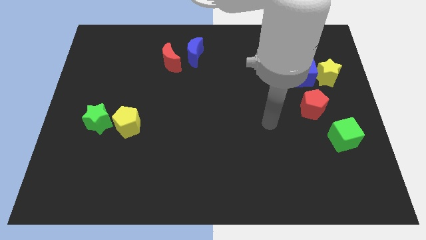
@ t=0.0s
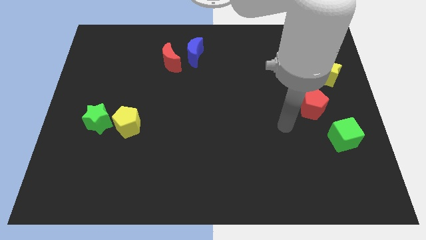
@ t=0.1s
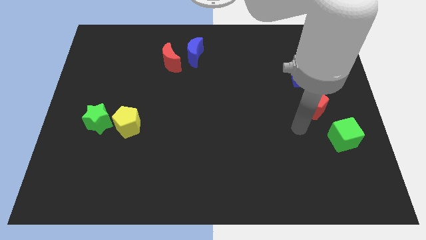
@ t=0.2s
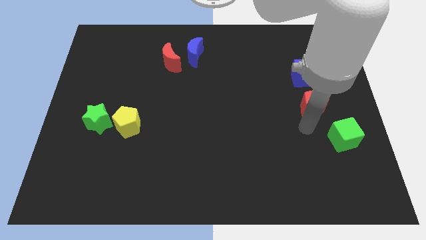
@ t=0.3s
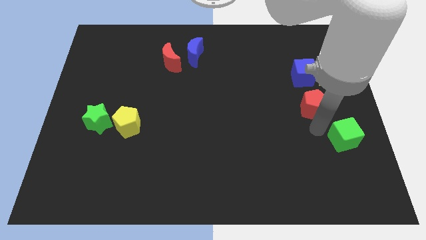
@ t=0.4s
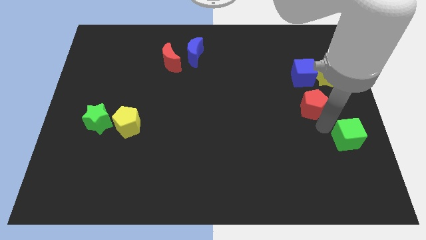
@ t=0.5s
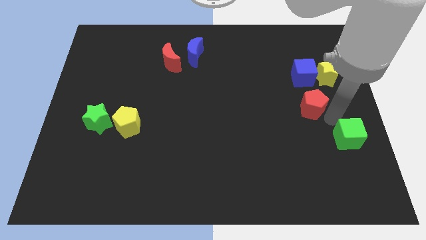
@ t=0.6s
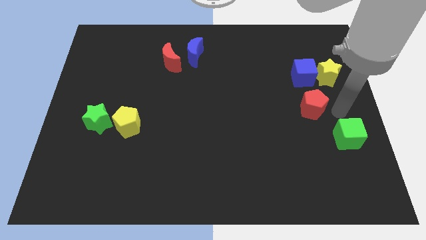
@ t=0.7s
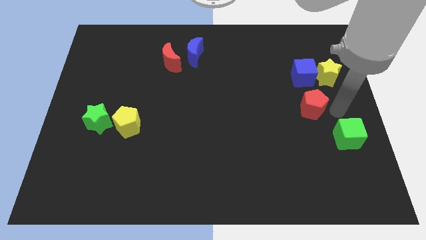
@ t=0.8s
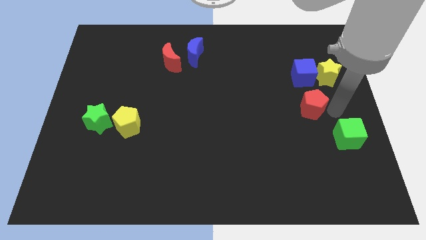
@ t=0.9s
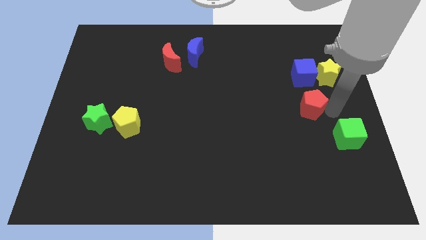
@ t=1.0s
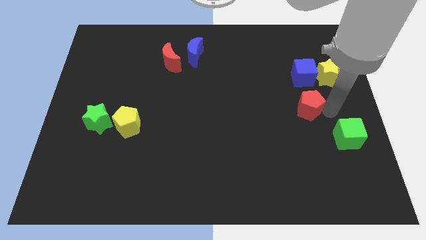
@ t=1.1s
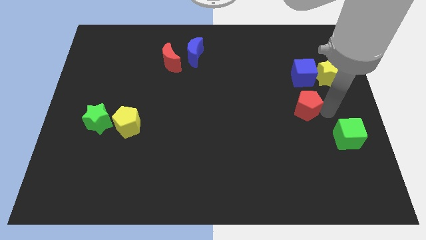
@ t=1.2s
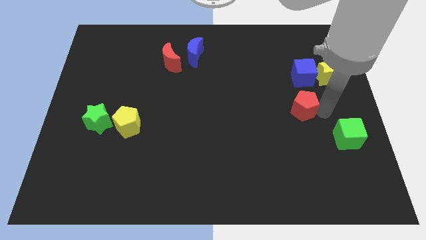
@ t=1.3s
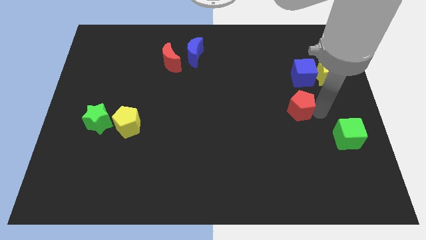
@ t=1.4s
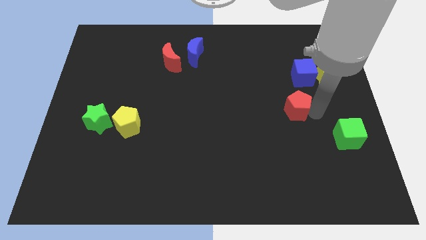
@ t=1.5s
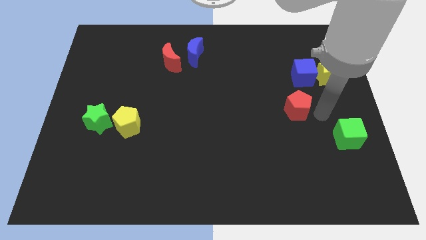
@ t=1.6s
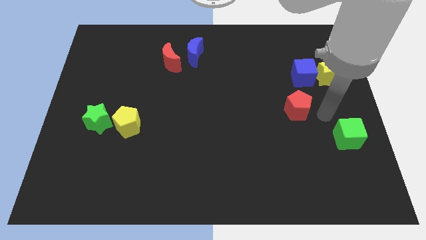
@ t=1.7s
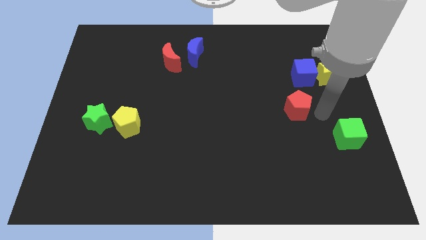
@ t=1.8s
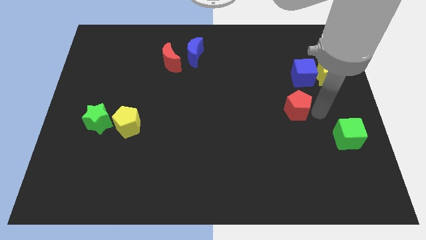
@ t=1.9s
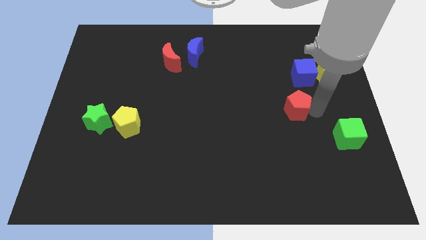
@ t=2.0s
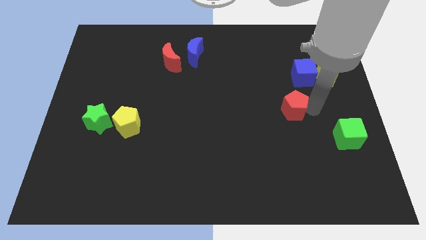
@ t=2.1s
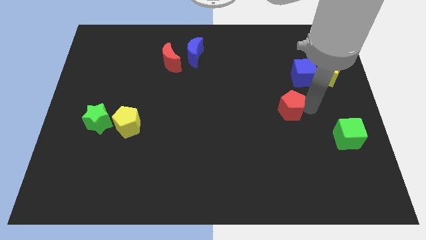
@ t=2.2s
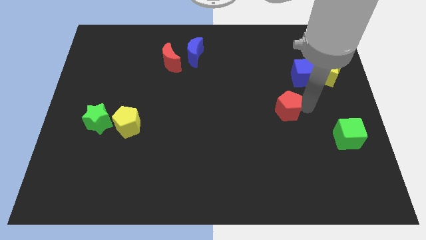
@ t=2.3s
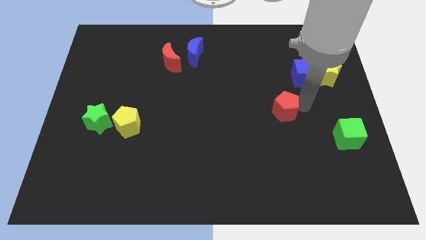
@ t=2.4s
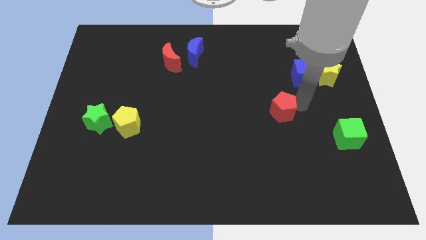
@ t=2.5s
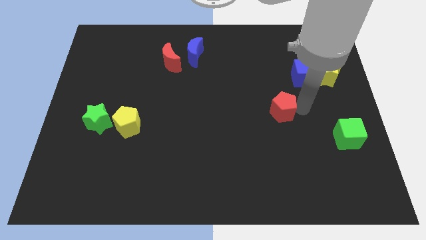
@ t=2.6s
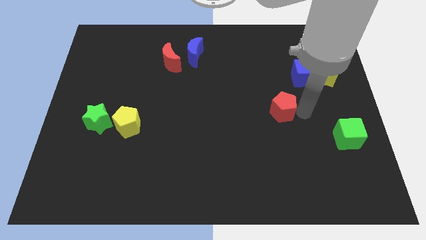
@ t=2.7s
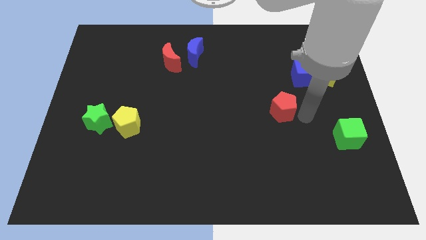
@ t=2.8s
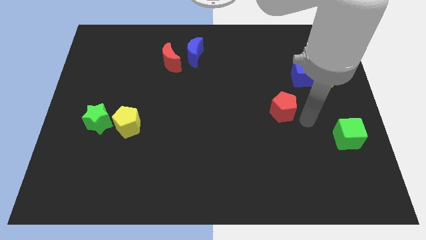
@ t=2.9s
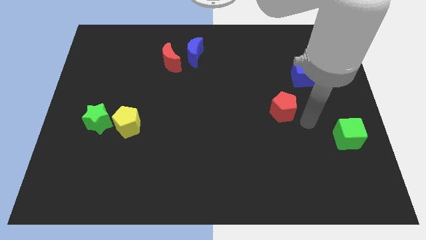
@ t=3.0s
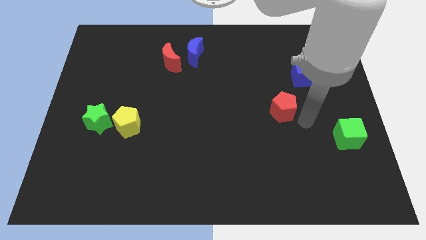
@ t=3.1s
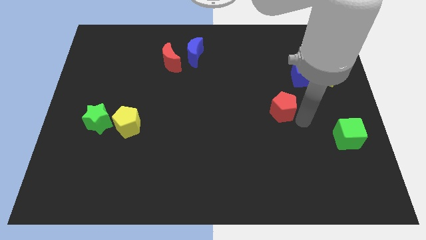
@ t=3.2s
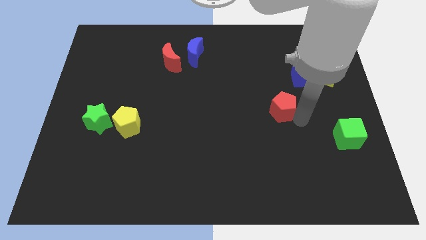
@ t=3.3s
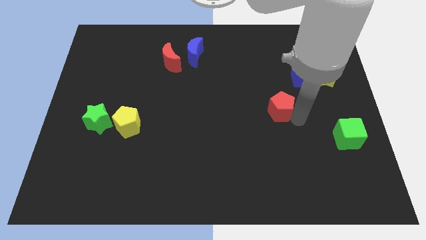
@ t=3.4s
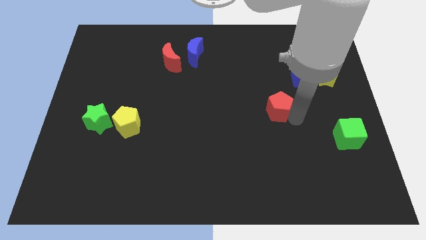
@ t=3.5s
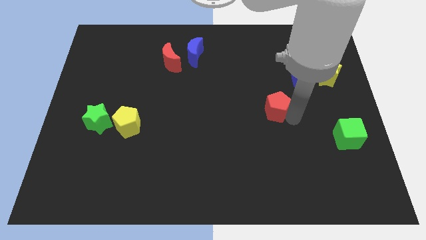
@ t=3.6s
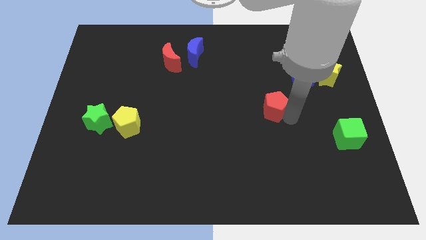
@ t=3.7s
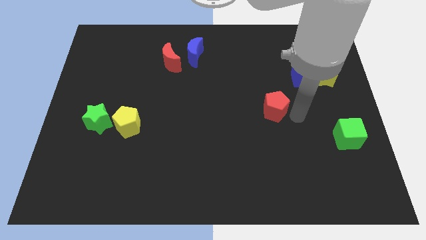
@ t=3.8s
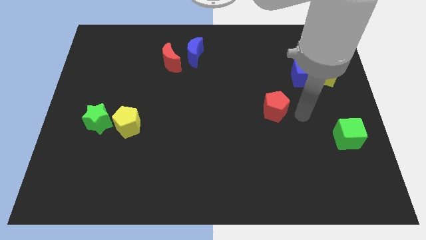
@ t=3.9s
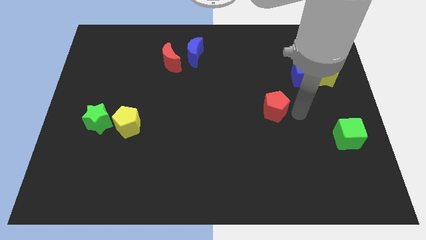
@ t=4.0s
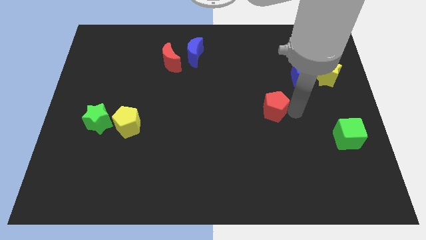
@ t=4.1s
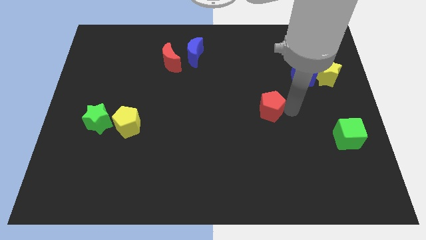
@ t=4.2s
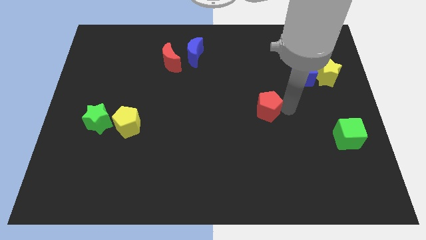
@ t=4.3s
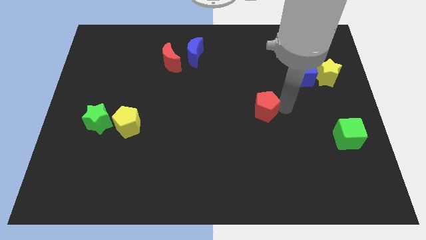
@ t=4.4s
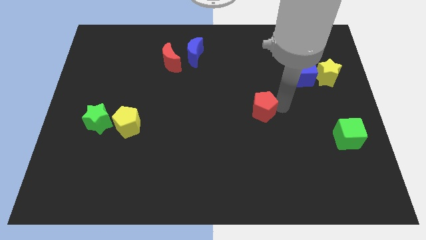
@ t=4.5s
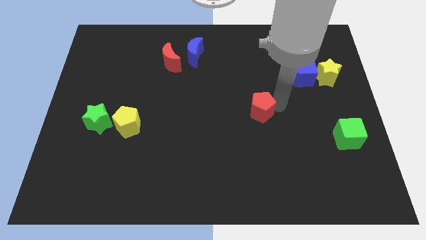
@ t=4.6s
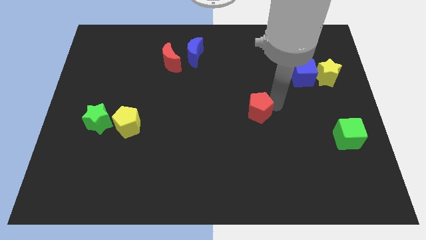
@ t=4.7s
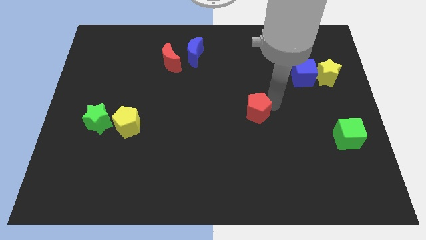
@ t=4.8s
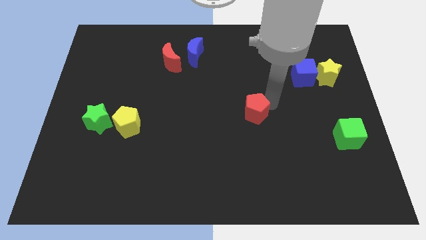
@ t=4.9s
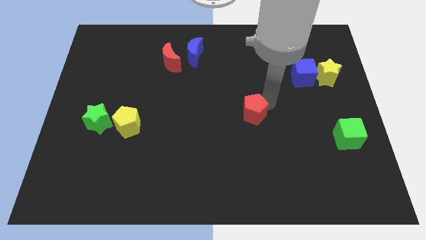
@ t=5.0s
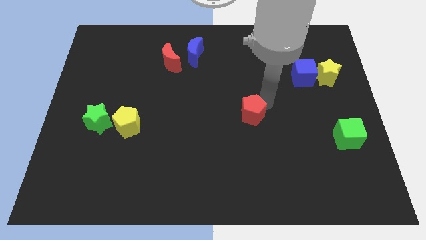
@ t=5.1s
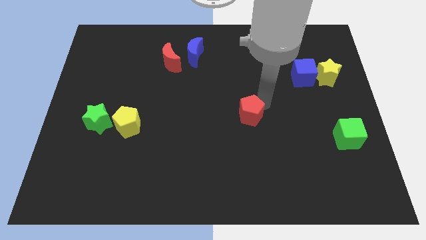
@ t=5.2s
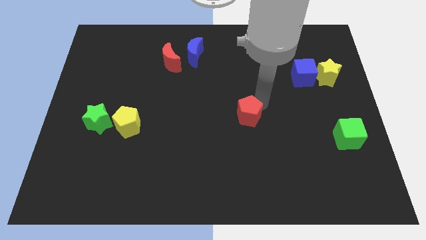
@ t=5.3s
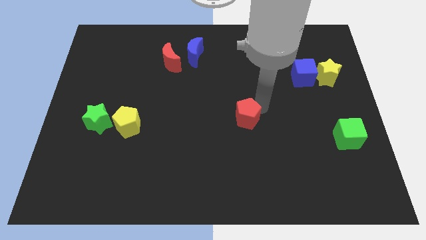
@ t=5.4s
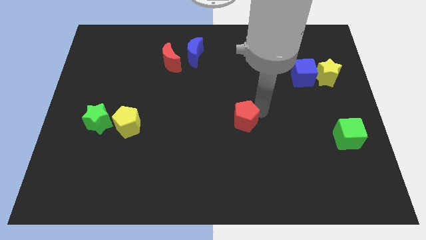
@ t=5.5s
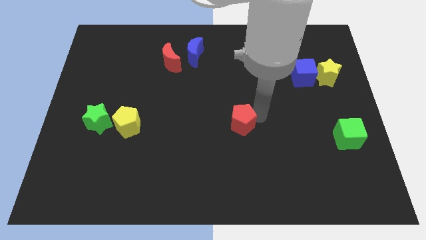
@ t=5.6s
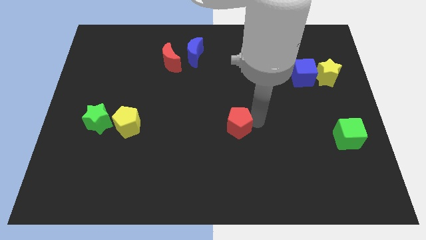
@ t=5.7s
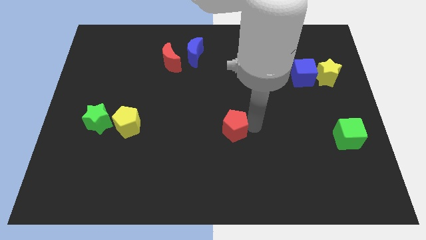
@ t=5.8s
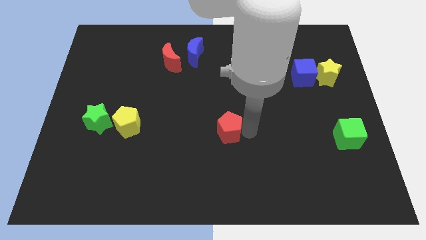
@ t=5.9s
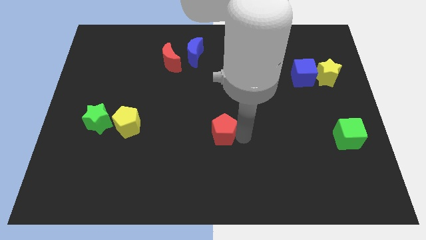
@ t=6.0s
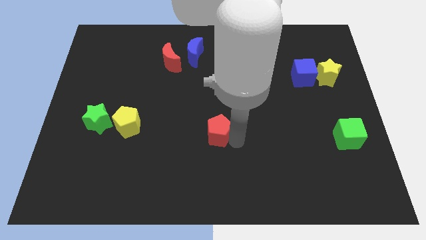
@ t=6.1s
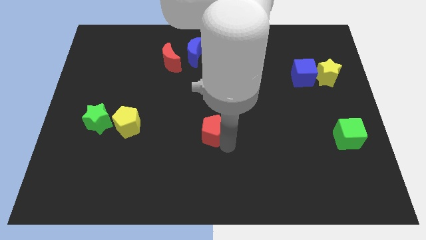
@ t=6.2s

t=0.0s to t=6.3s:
move the red pentagon left

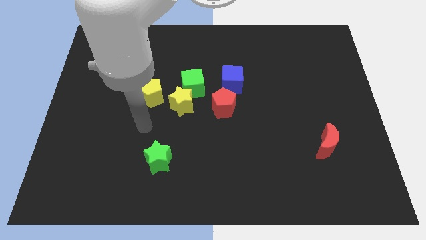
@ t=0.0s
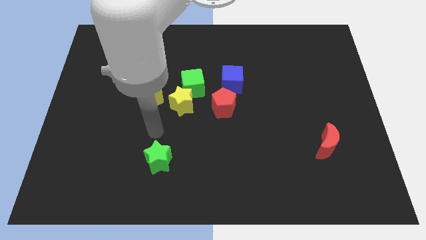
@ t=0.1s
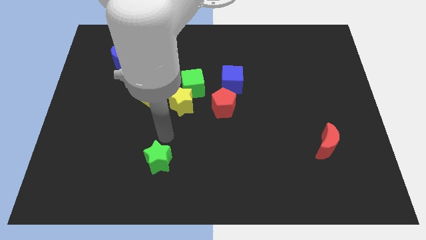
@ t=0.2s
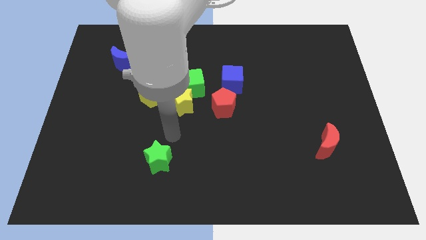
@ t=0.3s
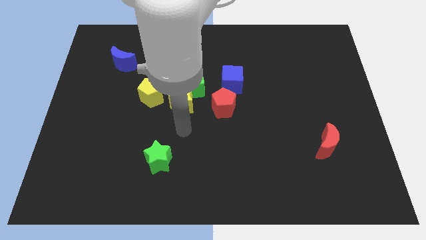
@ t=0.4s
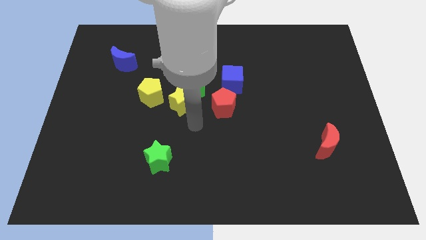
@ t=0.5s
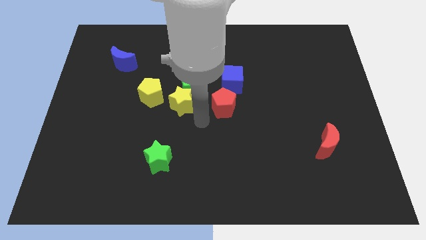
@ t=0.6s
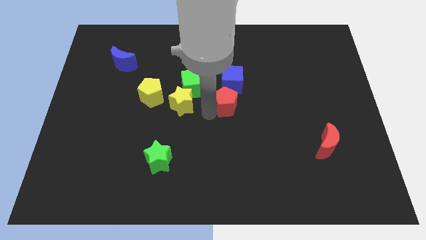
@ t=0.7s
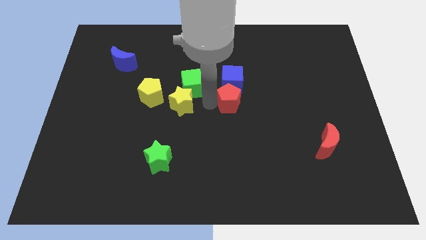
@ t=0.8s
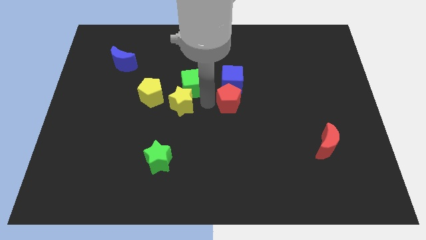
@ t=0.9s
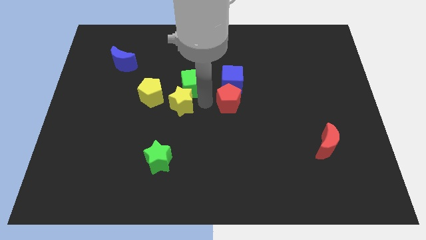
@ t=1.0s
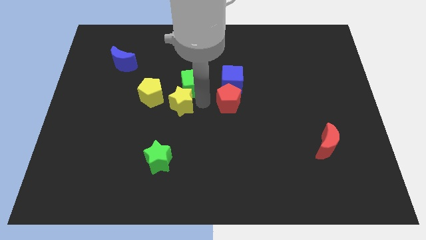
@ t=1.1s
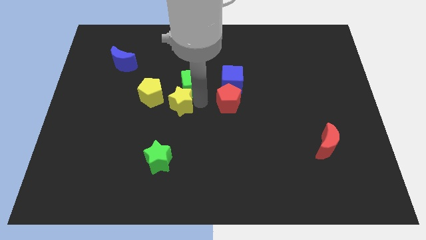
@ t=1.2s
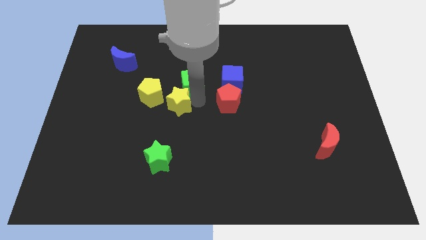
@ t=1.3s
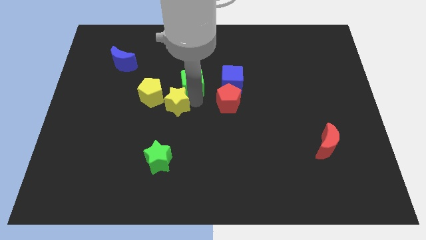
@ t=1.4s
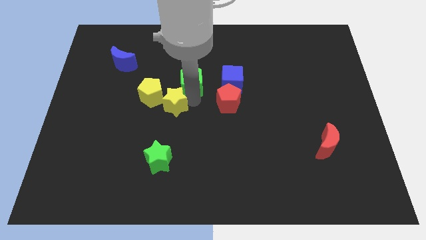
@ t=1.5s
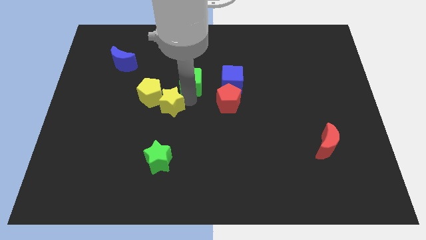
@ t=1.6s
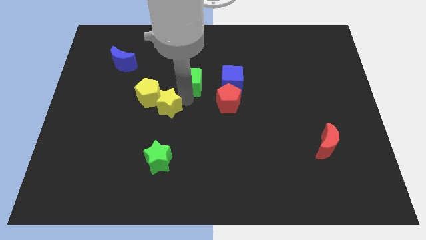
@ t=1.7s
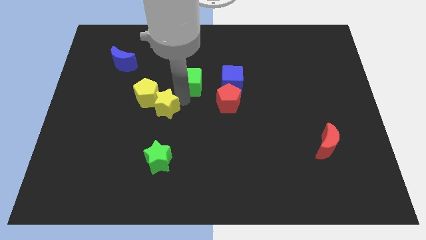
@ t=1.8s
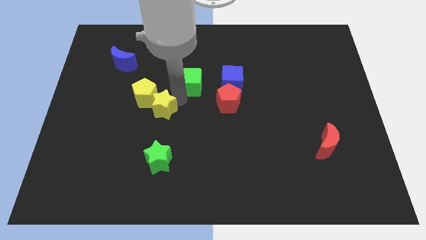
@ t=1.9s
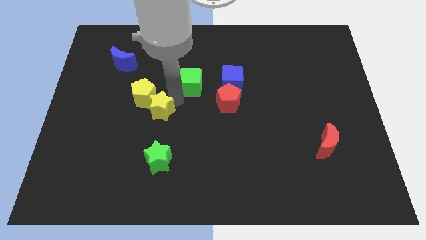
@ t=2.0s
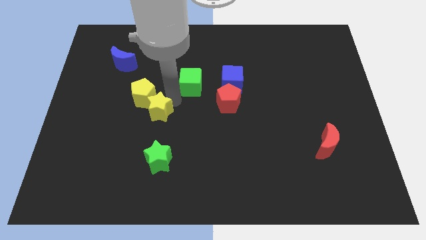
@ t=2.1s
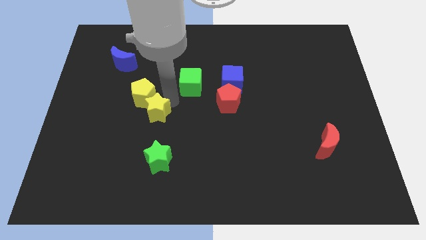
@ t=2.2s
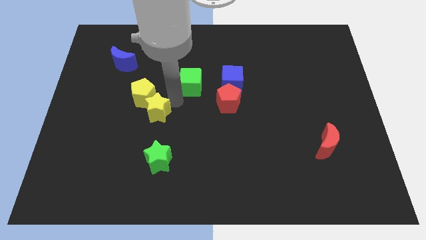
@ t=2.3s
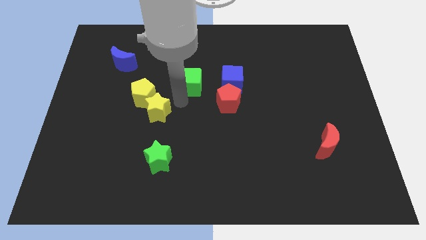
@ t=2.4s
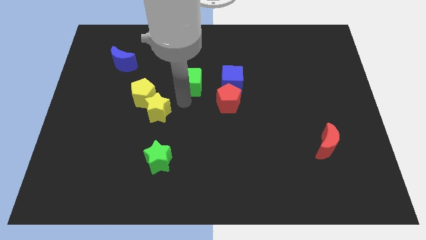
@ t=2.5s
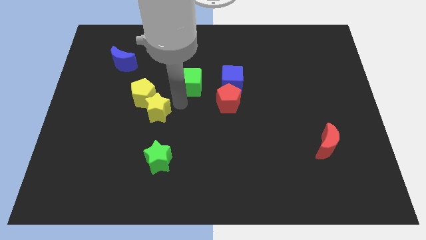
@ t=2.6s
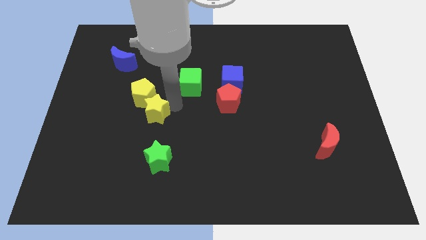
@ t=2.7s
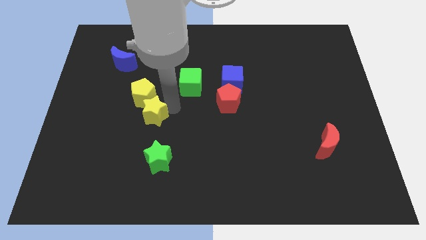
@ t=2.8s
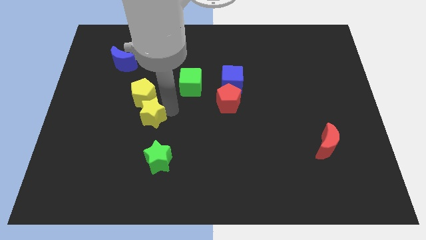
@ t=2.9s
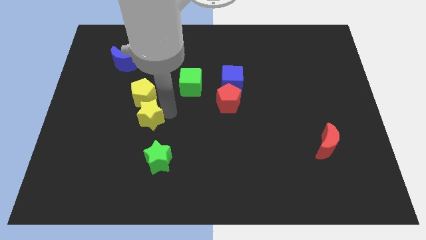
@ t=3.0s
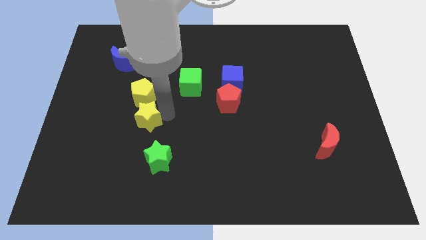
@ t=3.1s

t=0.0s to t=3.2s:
slightly push the yellow star to the left
